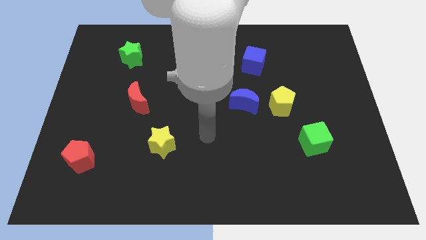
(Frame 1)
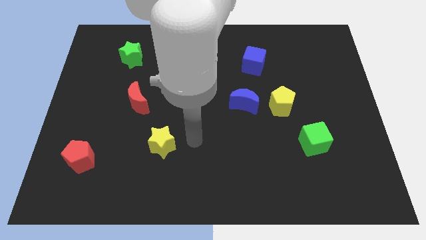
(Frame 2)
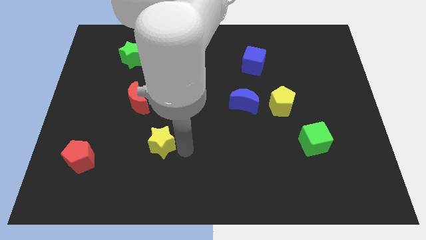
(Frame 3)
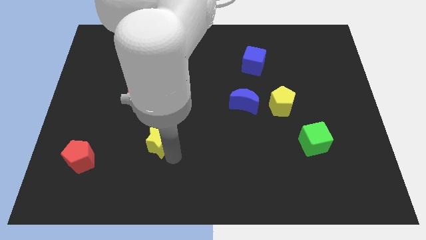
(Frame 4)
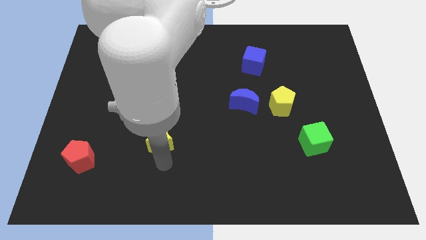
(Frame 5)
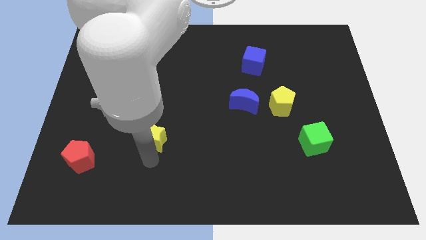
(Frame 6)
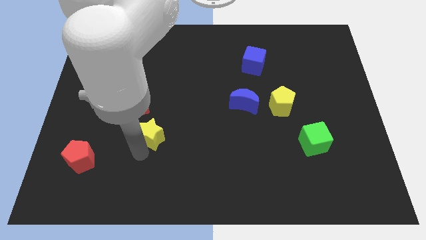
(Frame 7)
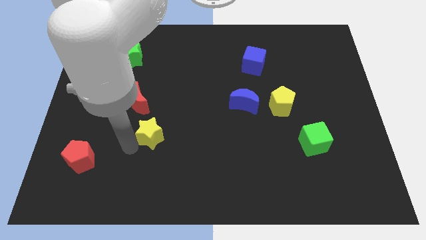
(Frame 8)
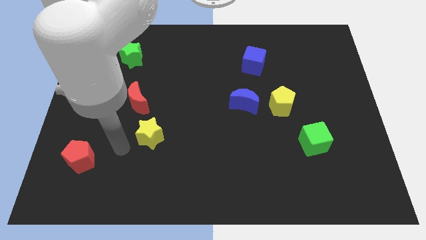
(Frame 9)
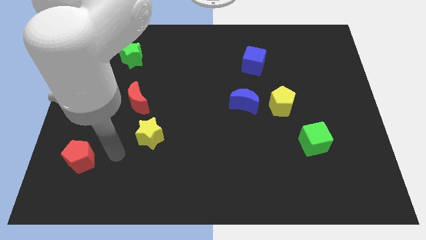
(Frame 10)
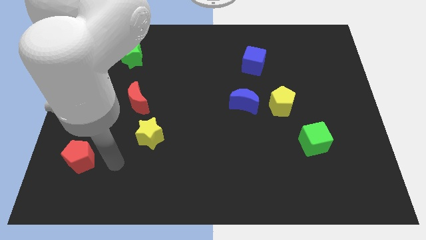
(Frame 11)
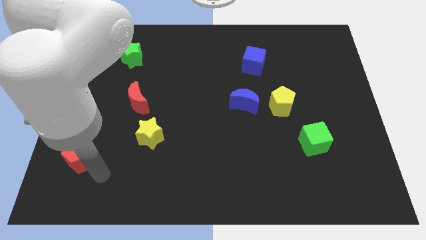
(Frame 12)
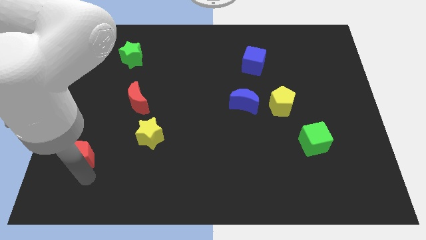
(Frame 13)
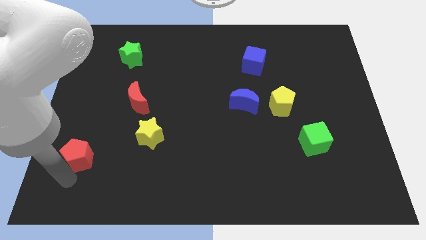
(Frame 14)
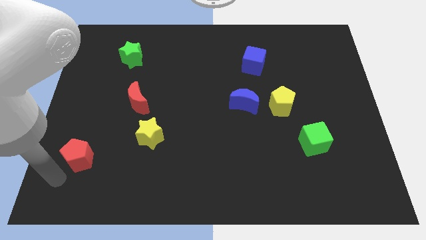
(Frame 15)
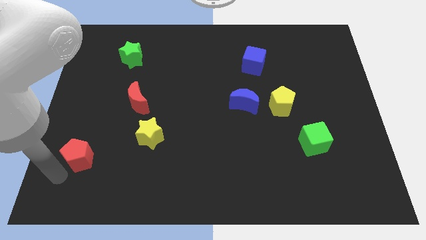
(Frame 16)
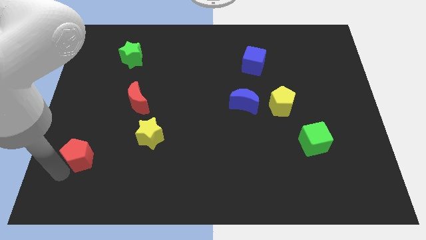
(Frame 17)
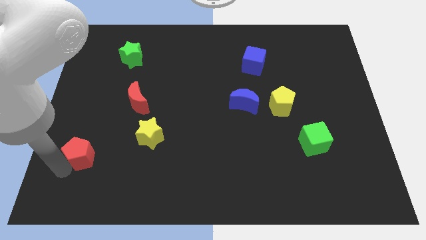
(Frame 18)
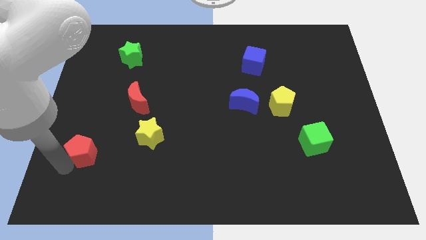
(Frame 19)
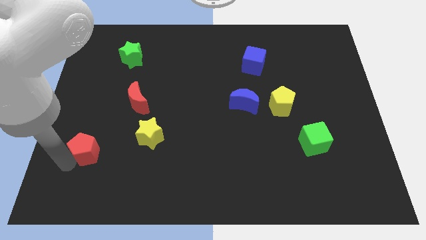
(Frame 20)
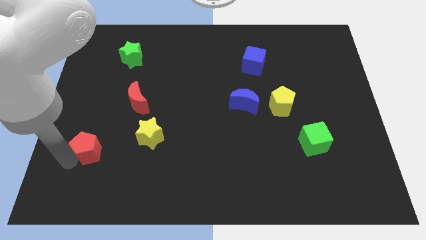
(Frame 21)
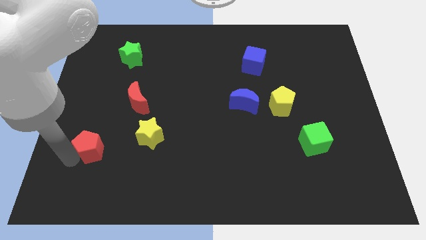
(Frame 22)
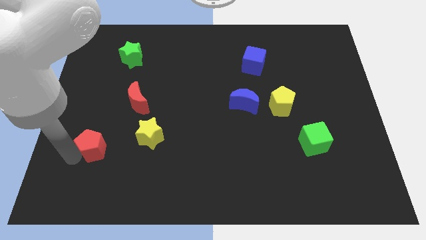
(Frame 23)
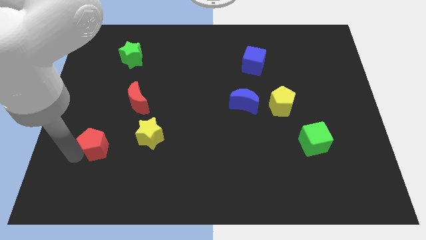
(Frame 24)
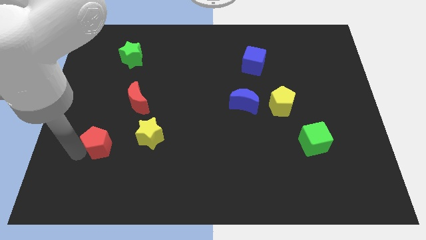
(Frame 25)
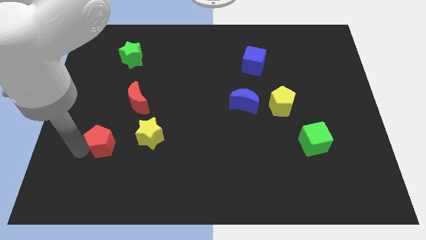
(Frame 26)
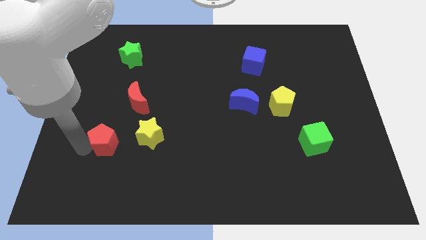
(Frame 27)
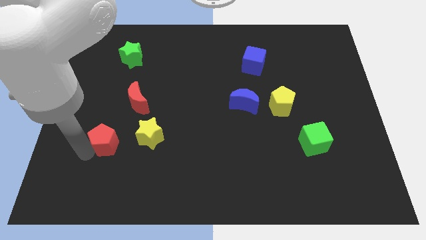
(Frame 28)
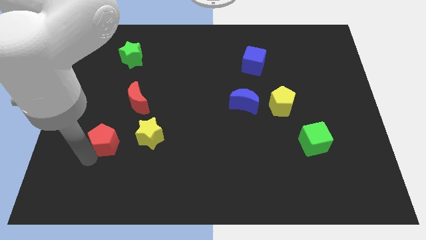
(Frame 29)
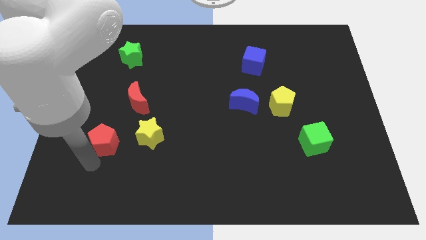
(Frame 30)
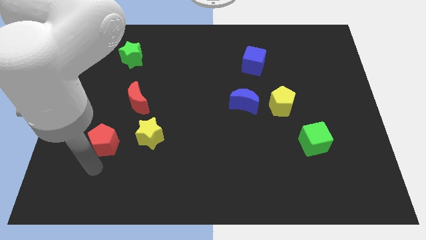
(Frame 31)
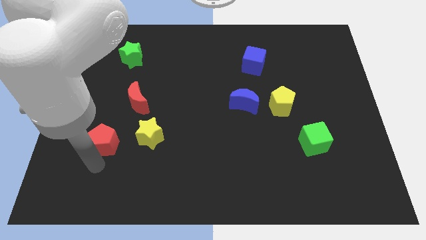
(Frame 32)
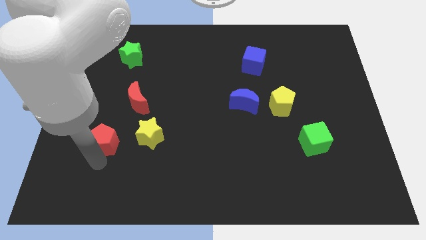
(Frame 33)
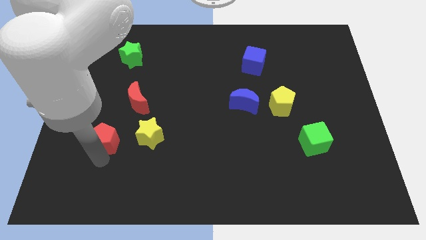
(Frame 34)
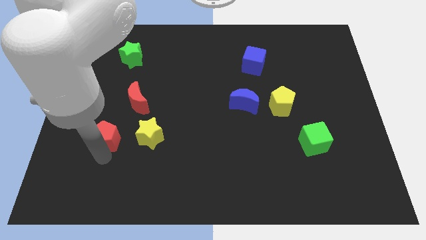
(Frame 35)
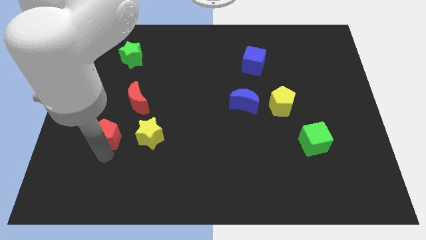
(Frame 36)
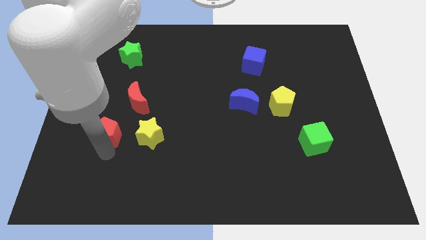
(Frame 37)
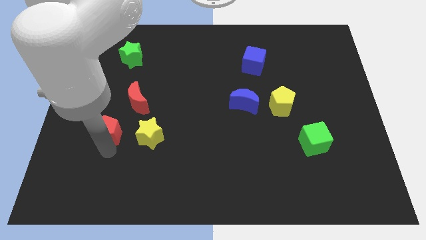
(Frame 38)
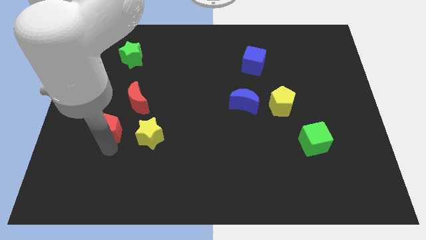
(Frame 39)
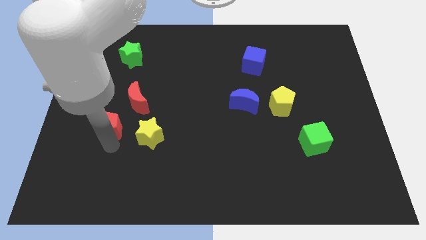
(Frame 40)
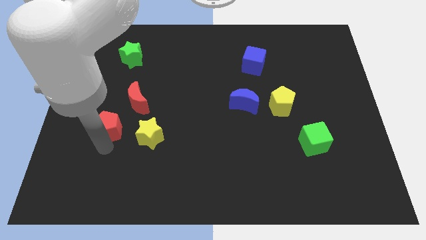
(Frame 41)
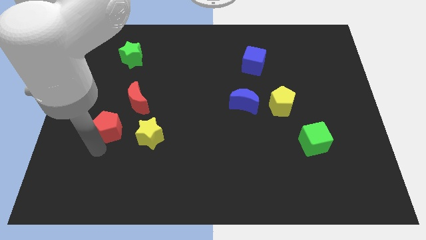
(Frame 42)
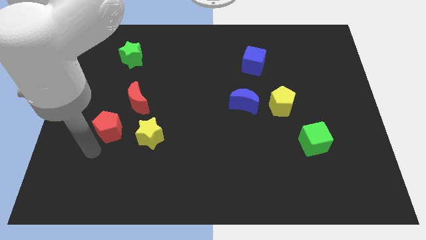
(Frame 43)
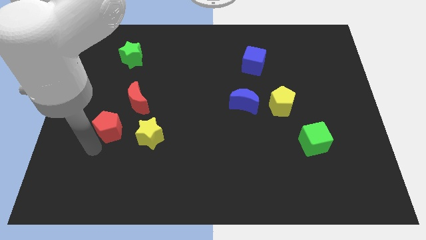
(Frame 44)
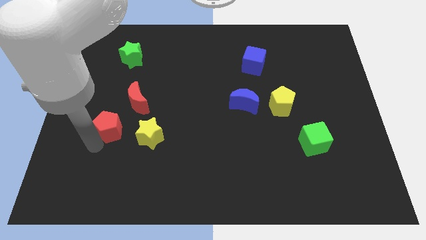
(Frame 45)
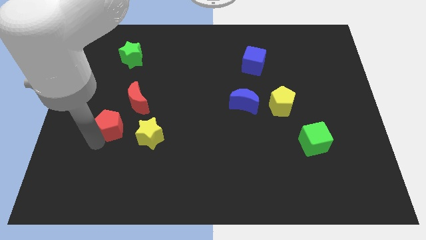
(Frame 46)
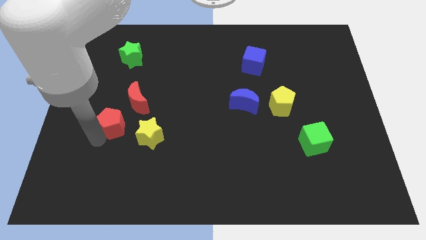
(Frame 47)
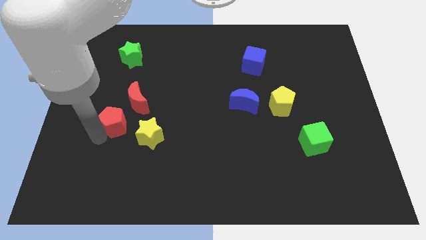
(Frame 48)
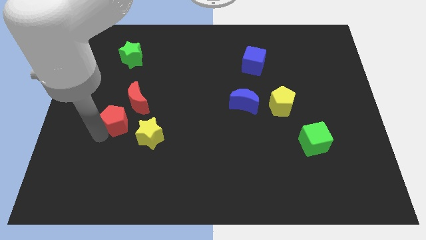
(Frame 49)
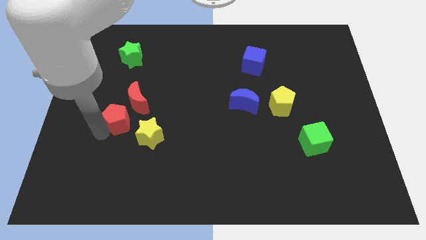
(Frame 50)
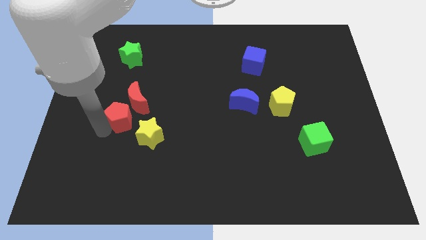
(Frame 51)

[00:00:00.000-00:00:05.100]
put the red pentagon to the red moon

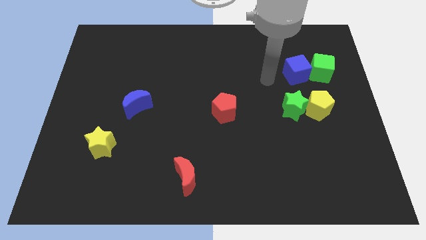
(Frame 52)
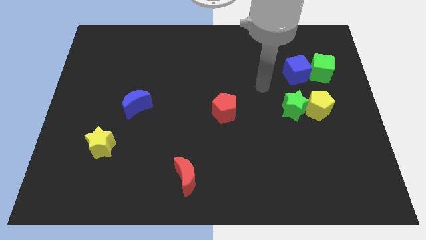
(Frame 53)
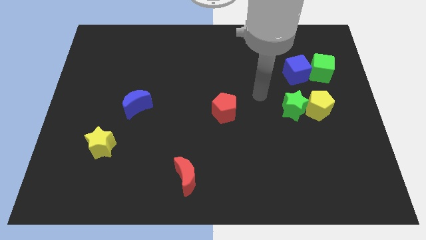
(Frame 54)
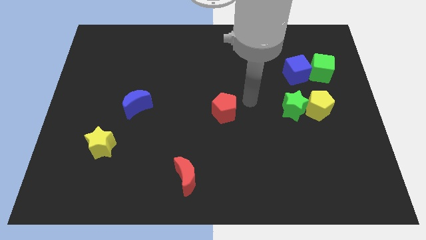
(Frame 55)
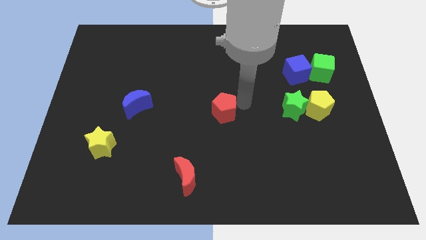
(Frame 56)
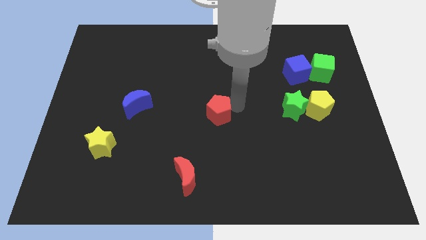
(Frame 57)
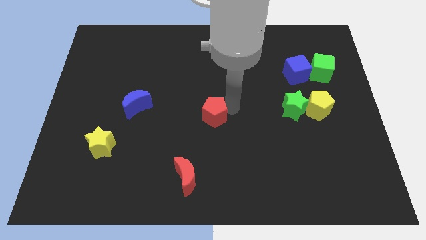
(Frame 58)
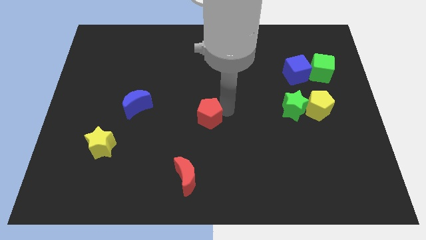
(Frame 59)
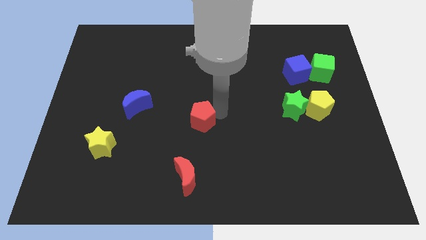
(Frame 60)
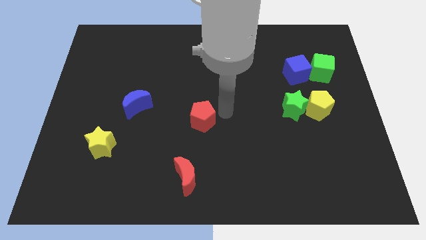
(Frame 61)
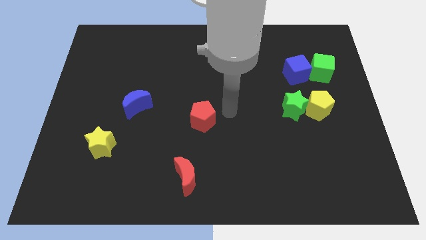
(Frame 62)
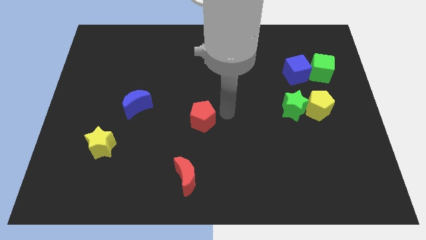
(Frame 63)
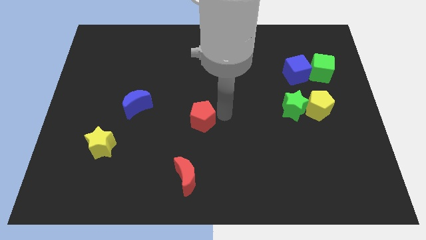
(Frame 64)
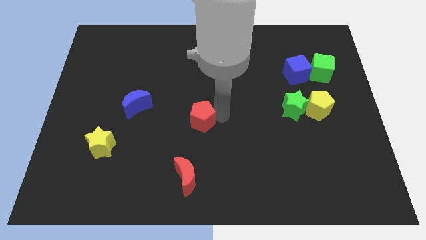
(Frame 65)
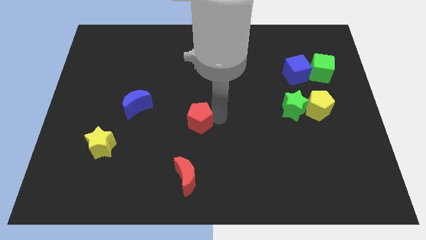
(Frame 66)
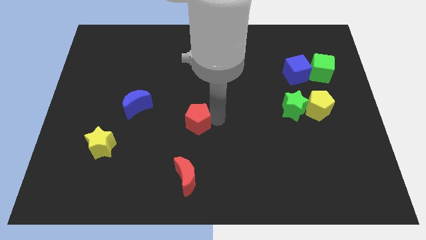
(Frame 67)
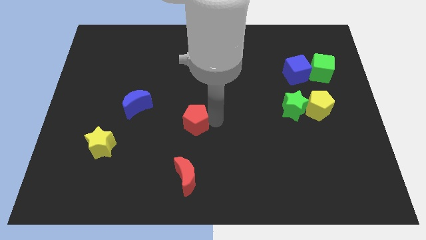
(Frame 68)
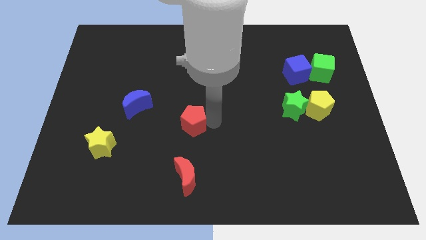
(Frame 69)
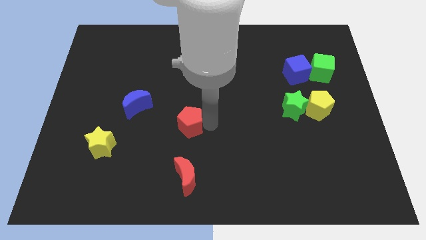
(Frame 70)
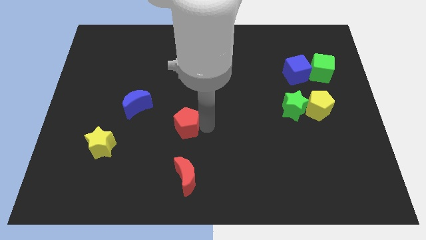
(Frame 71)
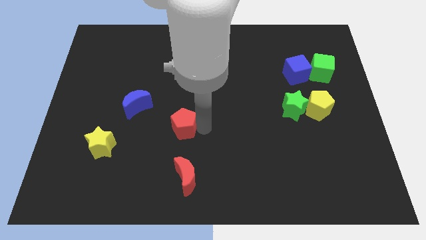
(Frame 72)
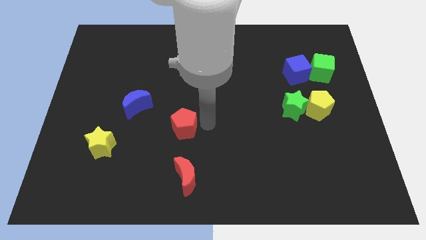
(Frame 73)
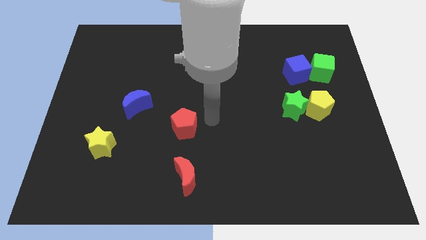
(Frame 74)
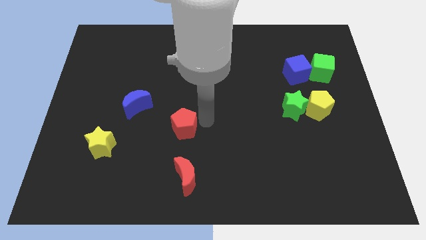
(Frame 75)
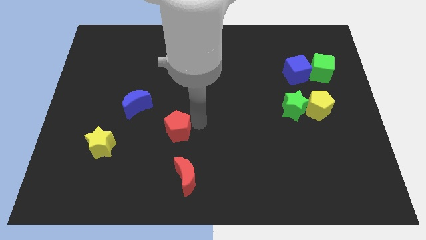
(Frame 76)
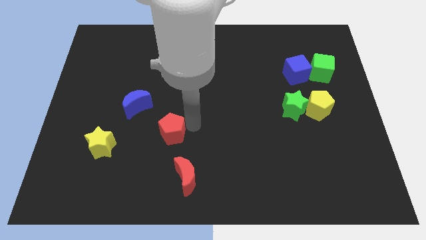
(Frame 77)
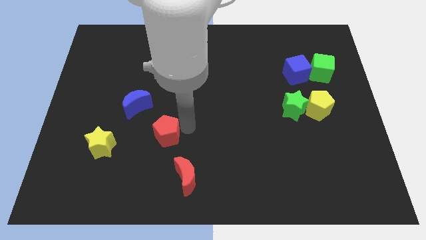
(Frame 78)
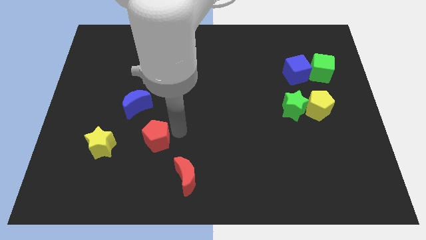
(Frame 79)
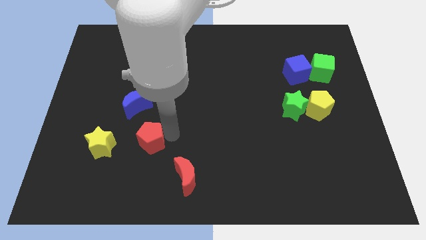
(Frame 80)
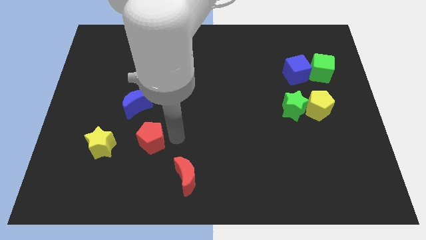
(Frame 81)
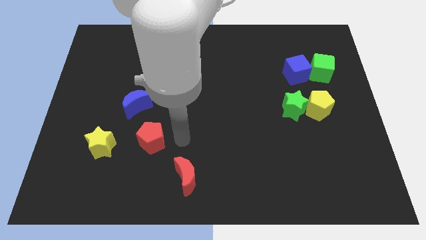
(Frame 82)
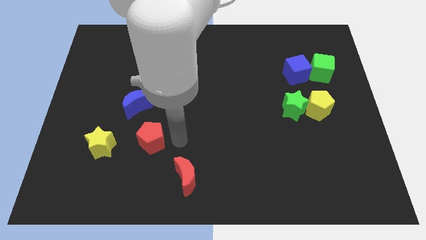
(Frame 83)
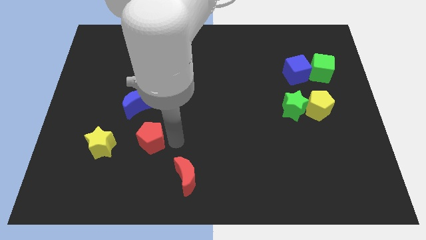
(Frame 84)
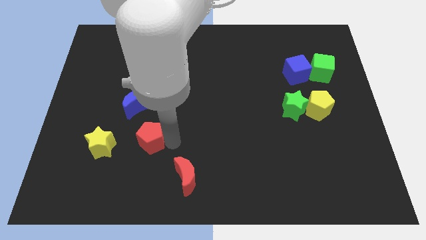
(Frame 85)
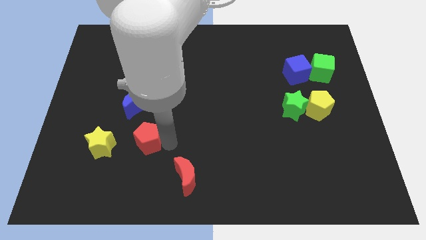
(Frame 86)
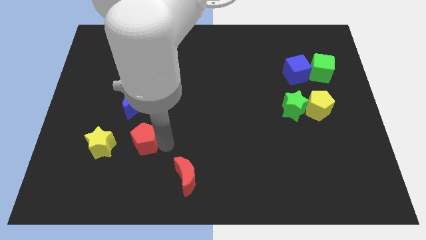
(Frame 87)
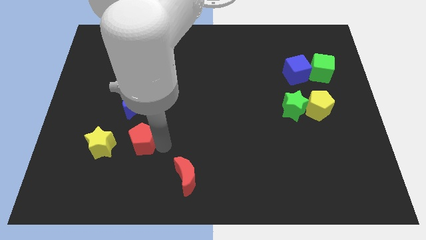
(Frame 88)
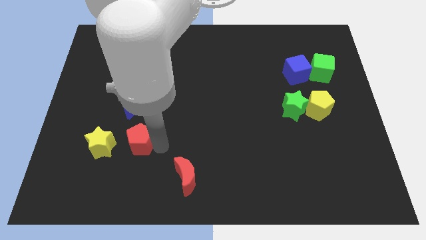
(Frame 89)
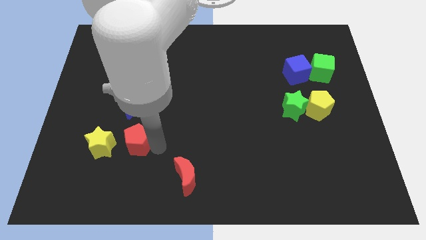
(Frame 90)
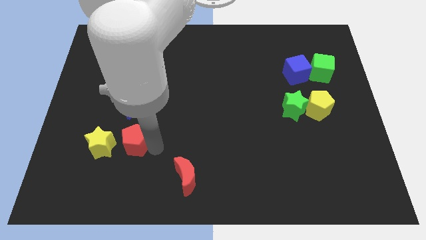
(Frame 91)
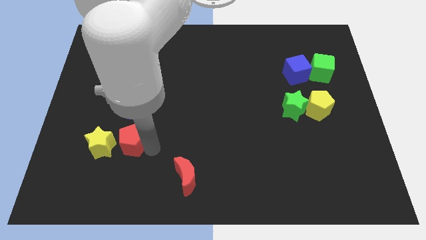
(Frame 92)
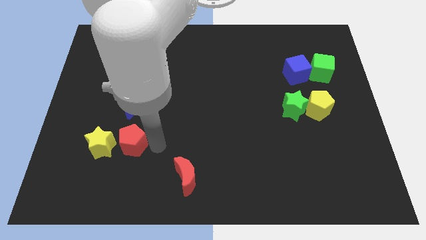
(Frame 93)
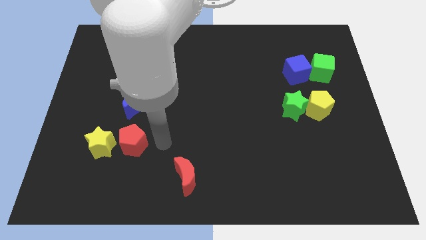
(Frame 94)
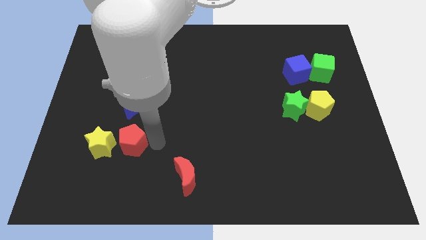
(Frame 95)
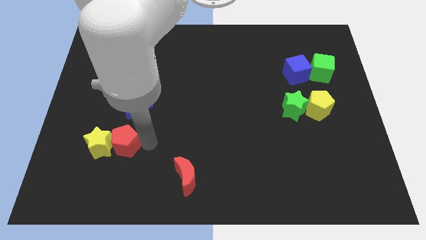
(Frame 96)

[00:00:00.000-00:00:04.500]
put the red pentagon towards the yellow star
